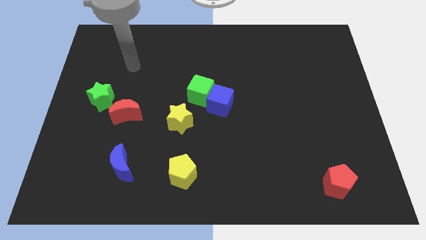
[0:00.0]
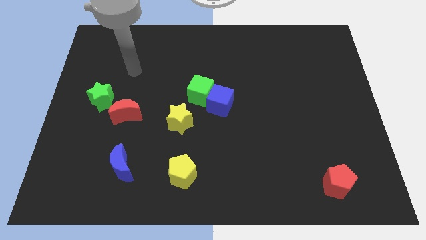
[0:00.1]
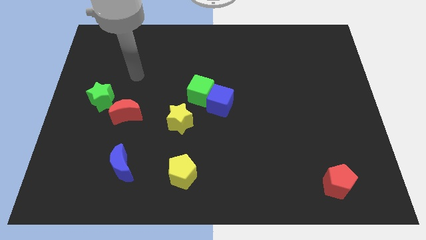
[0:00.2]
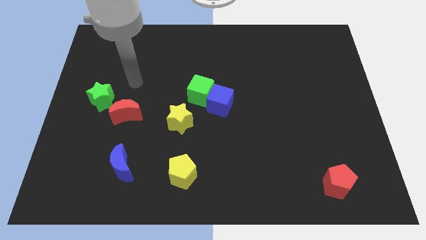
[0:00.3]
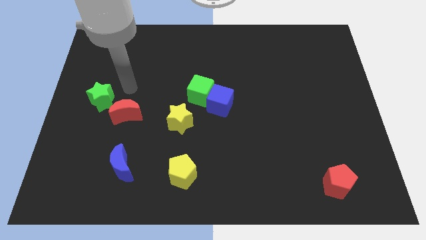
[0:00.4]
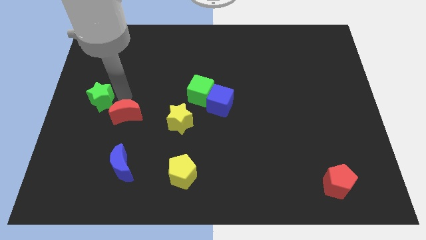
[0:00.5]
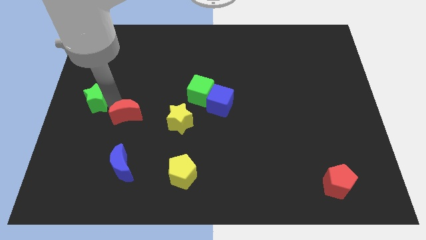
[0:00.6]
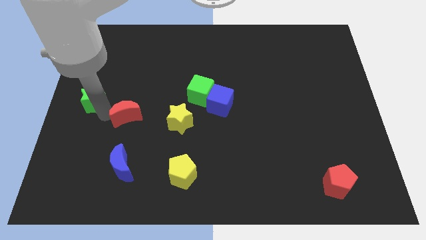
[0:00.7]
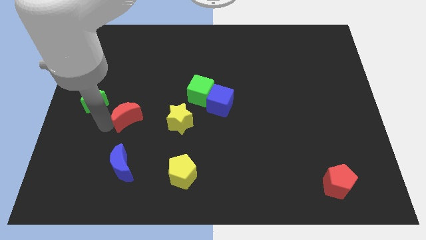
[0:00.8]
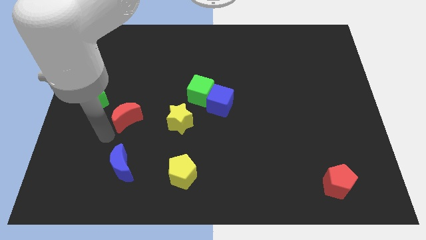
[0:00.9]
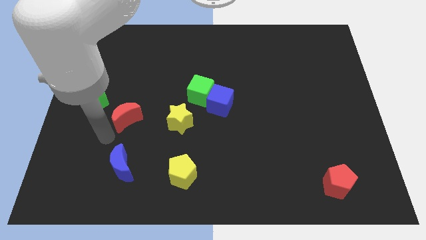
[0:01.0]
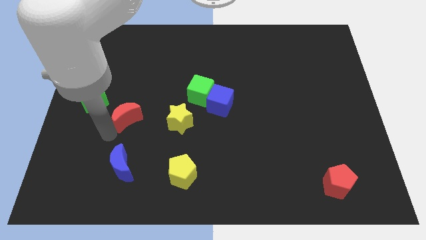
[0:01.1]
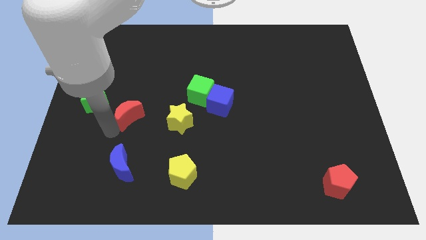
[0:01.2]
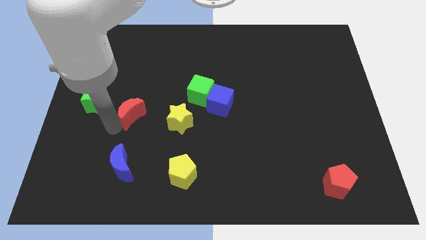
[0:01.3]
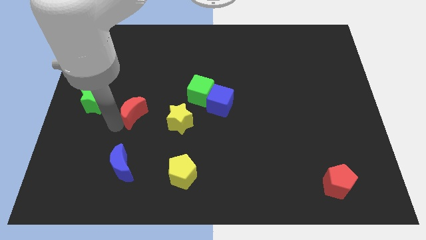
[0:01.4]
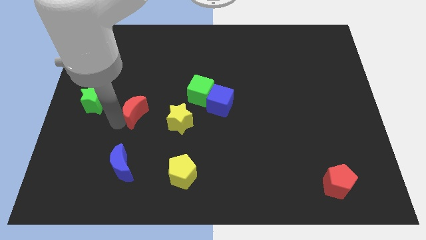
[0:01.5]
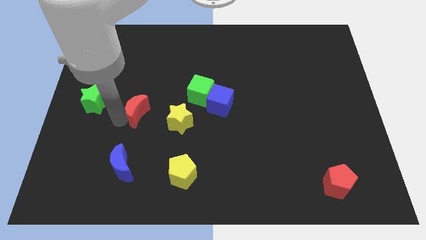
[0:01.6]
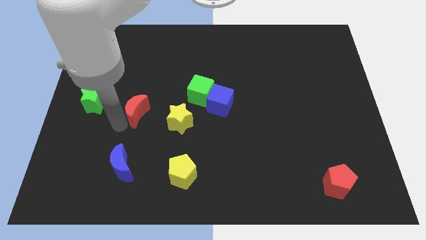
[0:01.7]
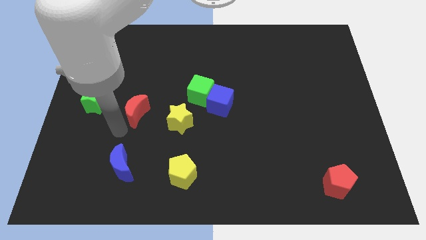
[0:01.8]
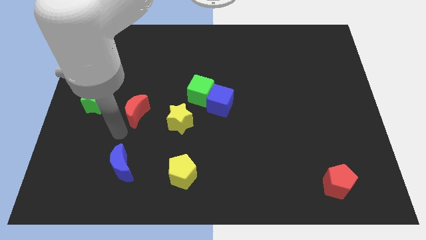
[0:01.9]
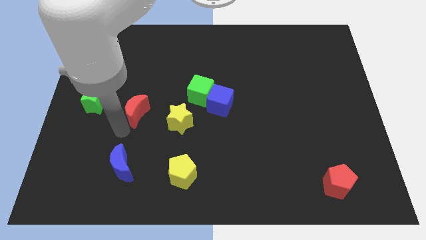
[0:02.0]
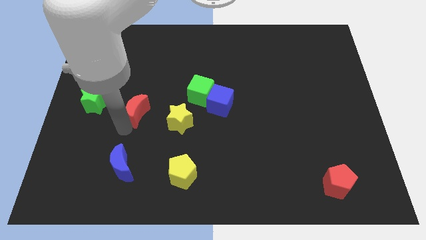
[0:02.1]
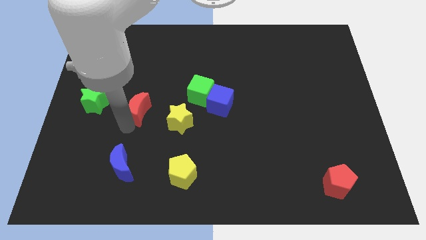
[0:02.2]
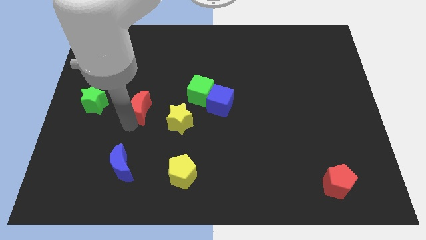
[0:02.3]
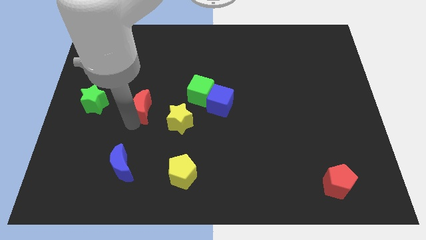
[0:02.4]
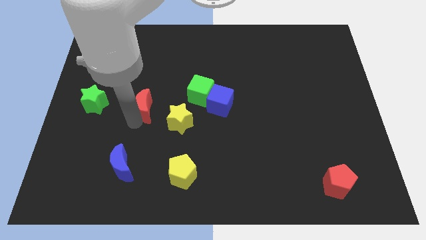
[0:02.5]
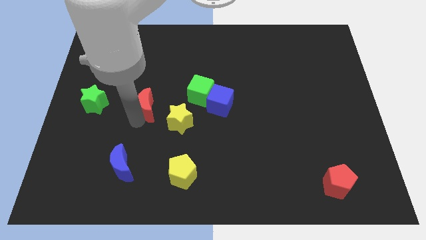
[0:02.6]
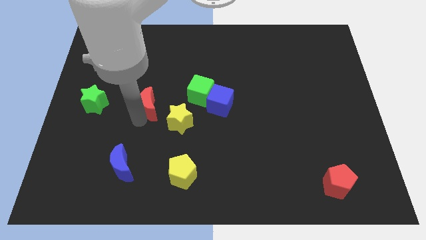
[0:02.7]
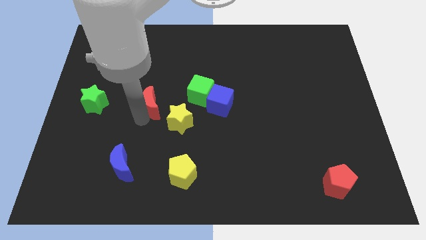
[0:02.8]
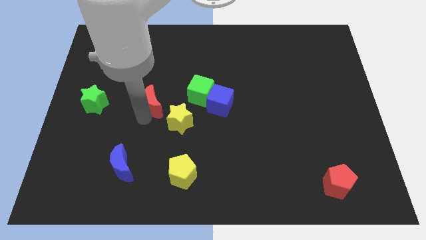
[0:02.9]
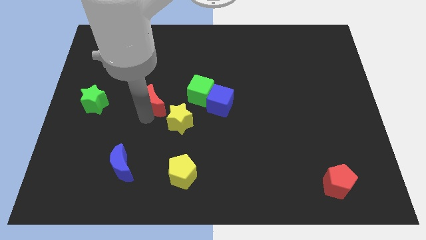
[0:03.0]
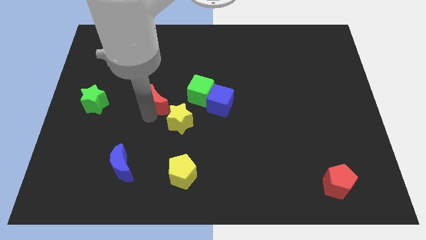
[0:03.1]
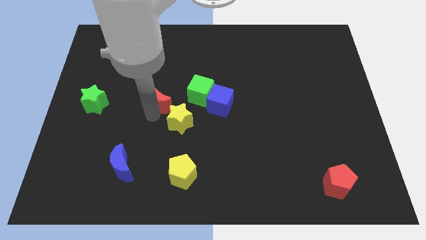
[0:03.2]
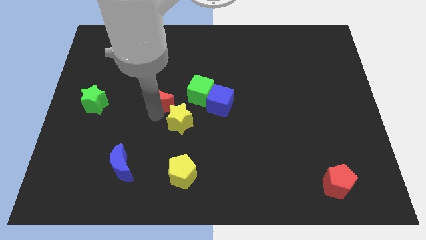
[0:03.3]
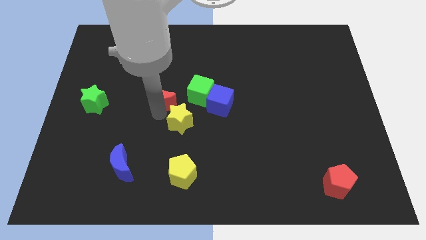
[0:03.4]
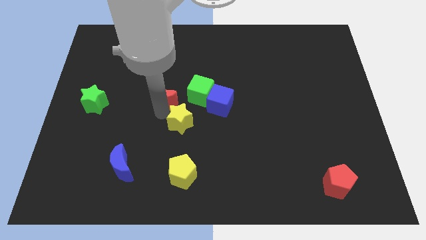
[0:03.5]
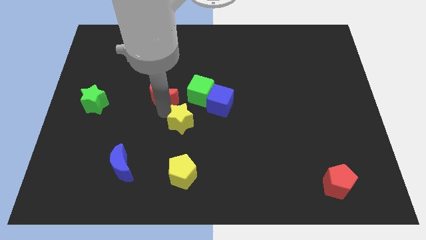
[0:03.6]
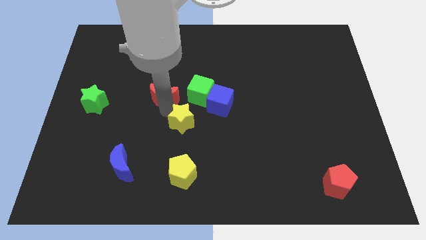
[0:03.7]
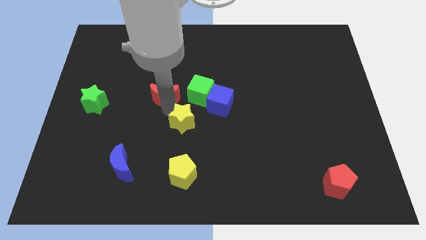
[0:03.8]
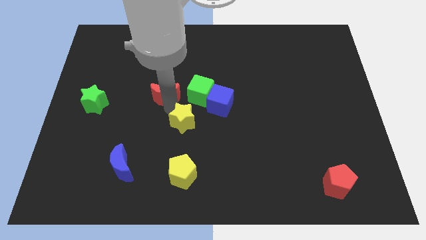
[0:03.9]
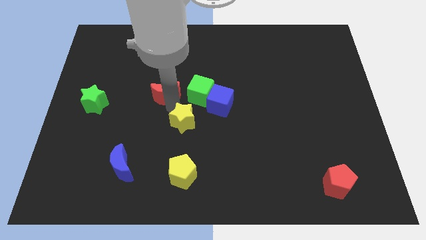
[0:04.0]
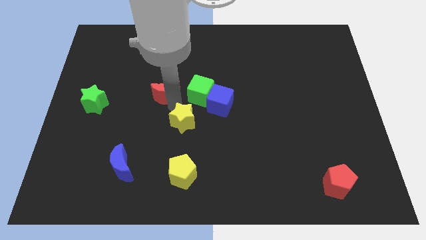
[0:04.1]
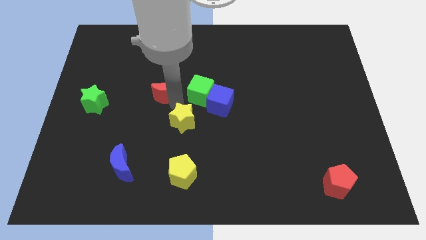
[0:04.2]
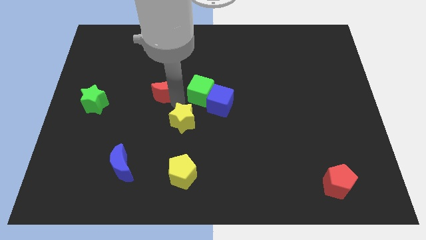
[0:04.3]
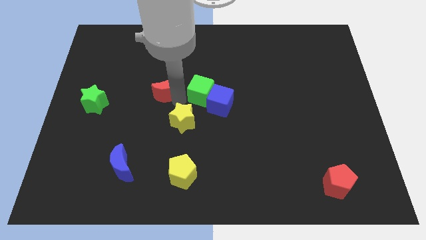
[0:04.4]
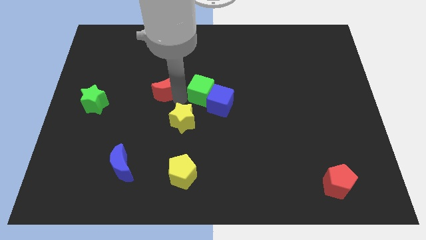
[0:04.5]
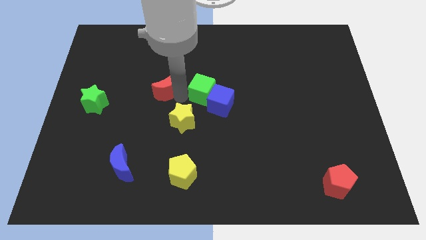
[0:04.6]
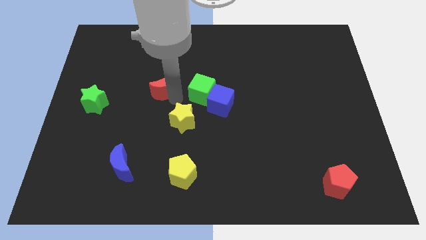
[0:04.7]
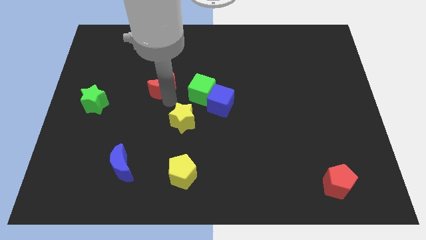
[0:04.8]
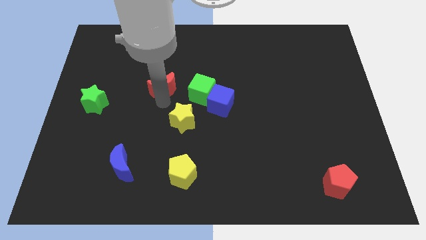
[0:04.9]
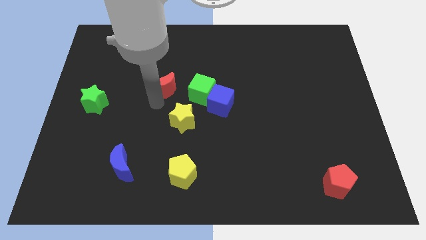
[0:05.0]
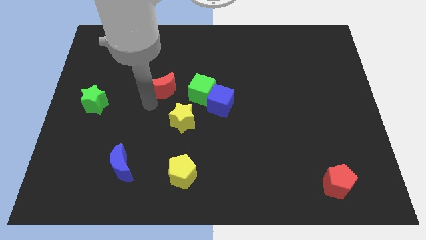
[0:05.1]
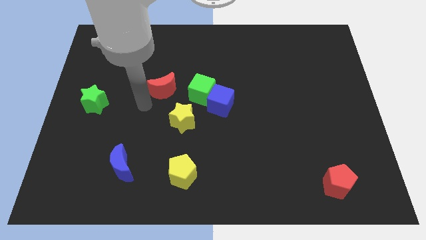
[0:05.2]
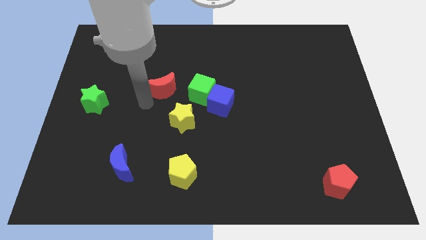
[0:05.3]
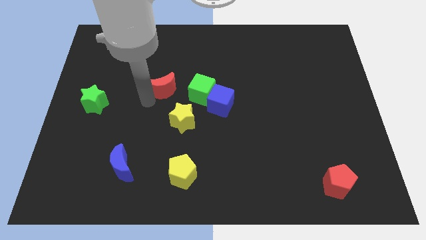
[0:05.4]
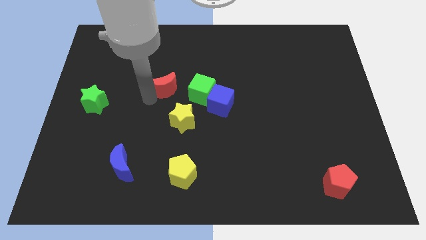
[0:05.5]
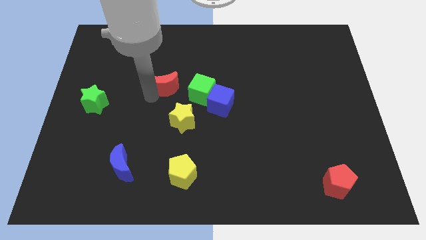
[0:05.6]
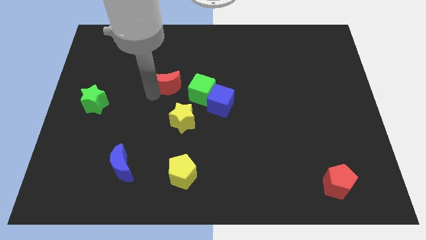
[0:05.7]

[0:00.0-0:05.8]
move the red moon to the top left of the green cube

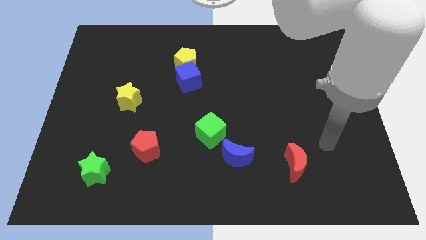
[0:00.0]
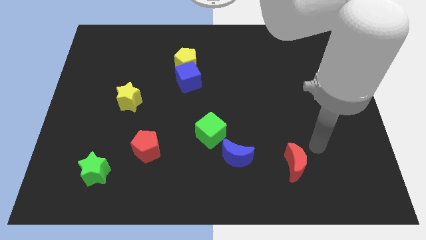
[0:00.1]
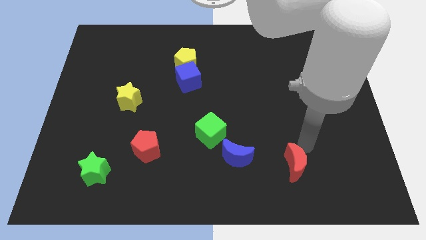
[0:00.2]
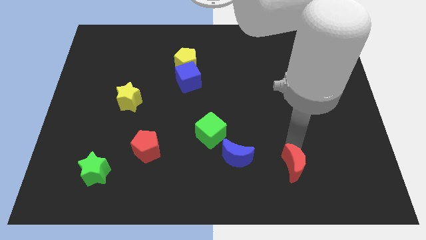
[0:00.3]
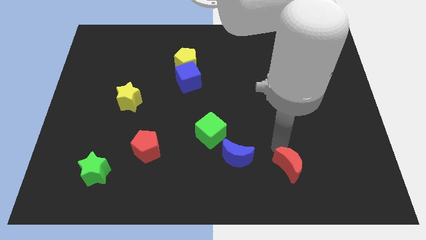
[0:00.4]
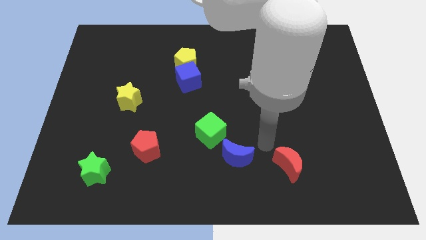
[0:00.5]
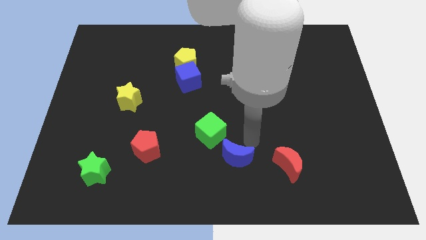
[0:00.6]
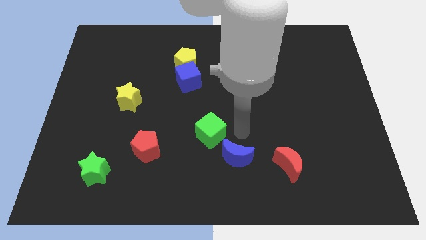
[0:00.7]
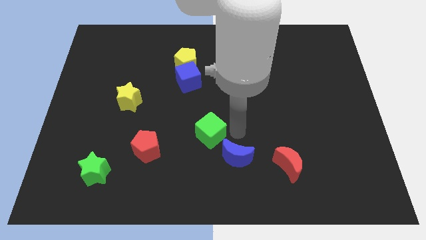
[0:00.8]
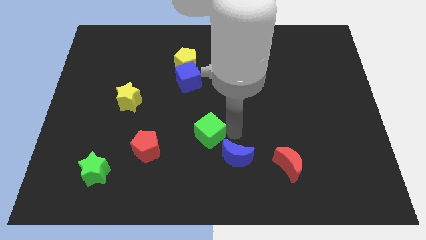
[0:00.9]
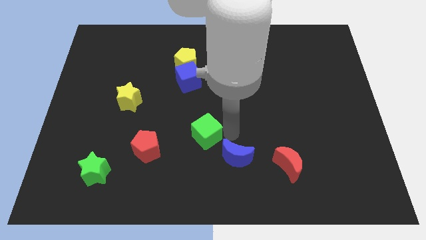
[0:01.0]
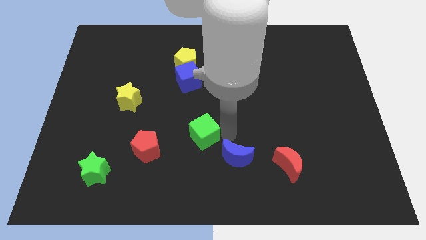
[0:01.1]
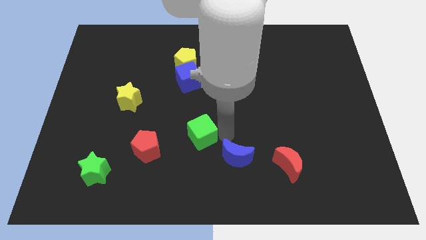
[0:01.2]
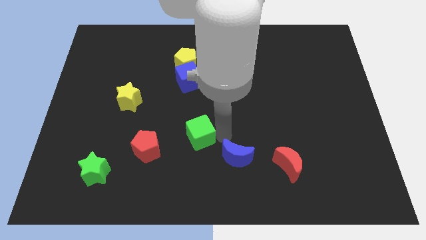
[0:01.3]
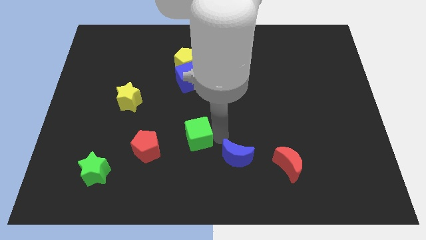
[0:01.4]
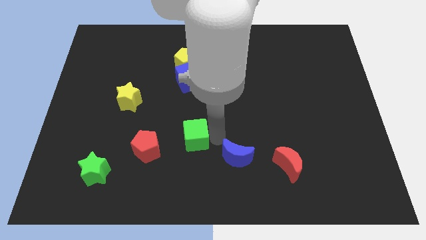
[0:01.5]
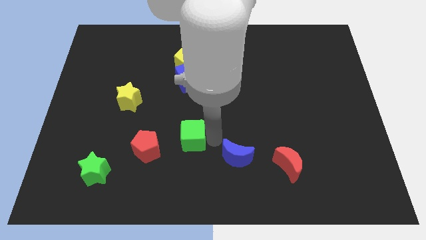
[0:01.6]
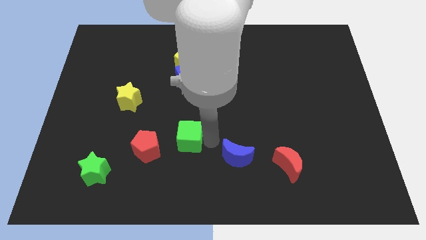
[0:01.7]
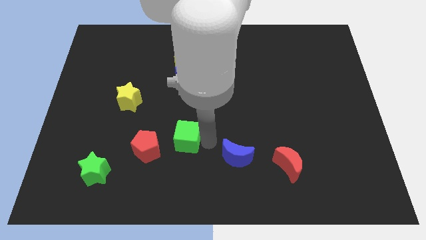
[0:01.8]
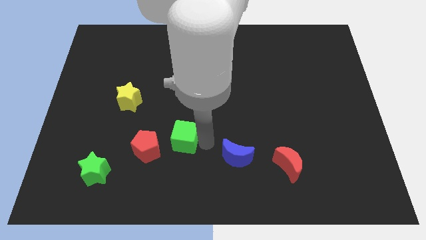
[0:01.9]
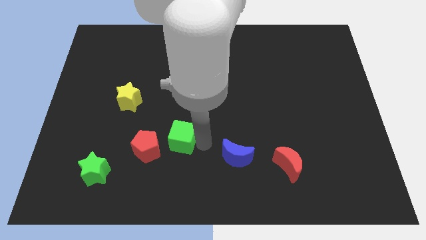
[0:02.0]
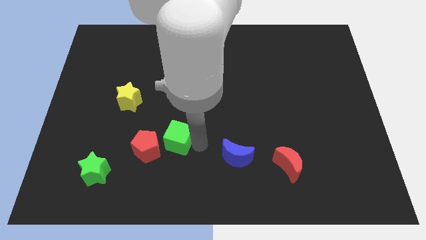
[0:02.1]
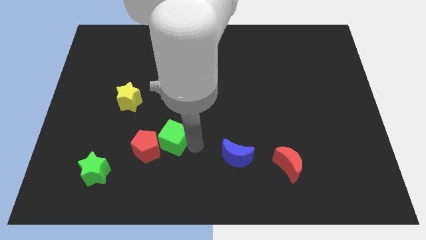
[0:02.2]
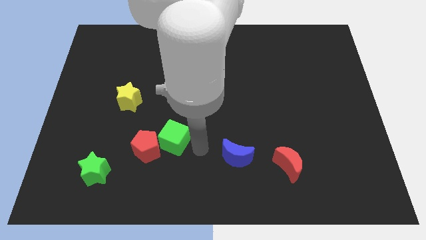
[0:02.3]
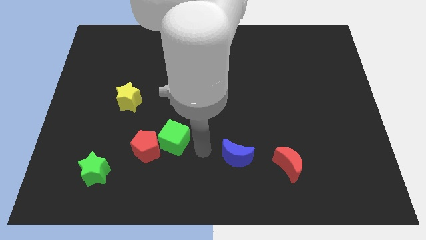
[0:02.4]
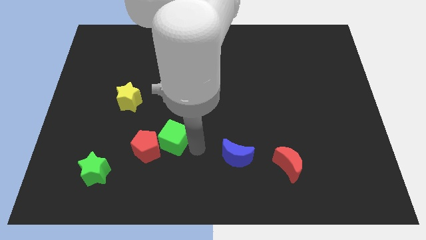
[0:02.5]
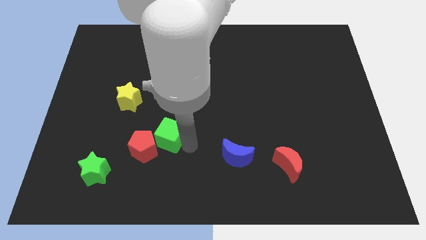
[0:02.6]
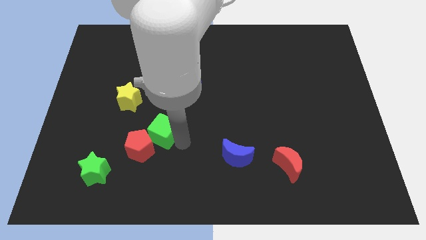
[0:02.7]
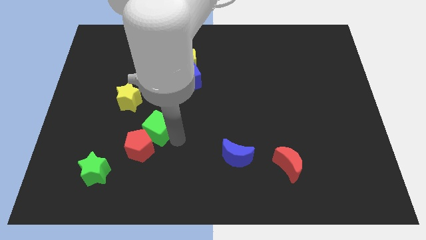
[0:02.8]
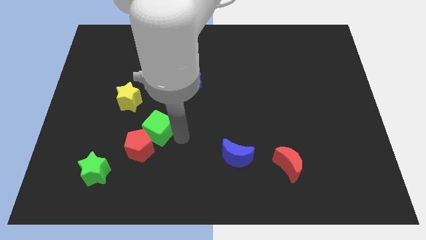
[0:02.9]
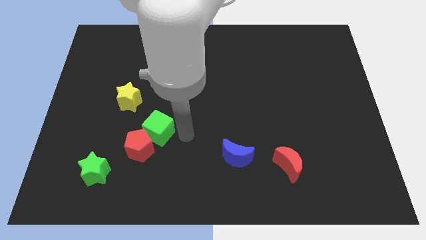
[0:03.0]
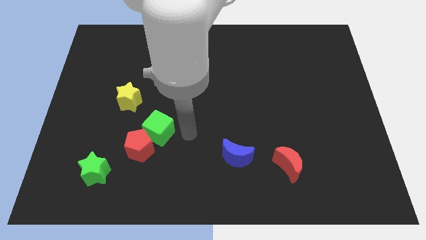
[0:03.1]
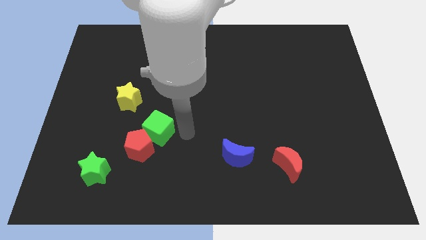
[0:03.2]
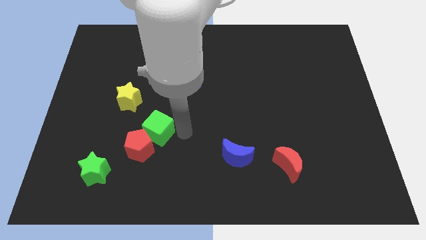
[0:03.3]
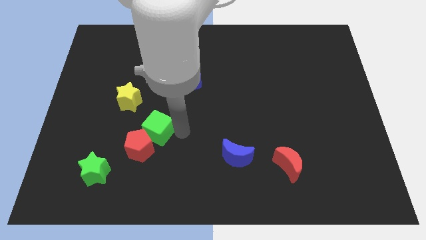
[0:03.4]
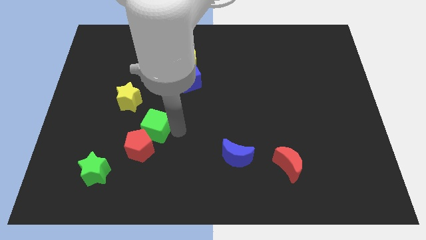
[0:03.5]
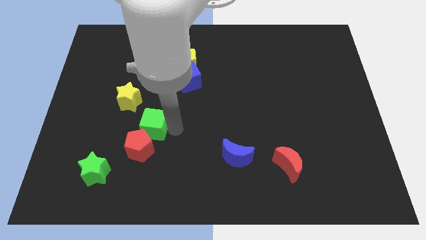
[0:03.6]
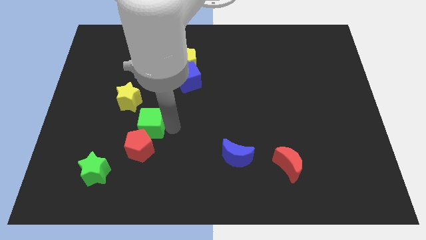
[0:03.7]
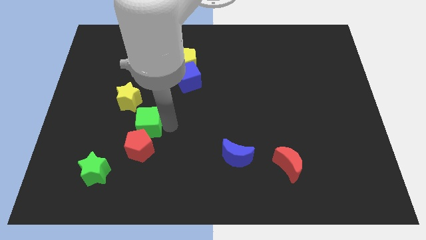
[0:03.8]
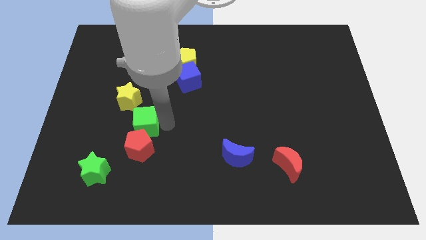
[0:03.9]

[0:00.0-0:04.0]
move the green cube to the bottom side of the yellow star
